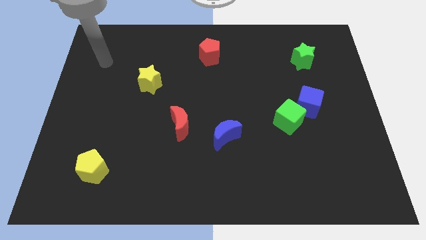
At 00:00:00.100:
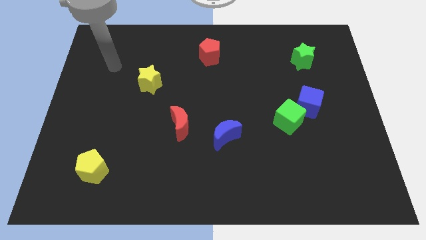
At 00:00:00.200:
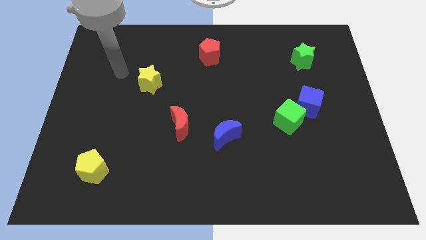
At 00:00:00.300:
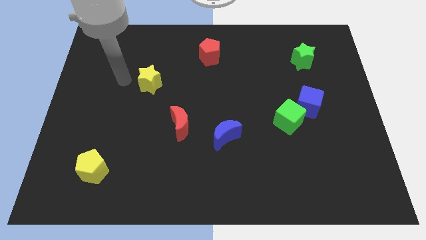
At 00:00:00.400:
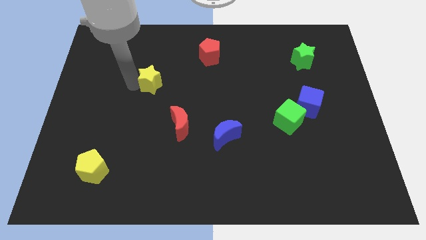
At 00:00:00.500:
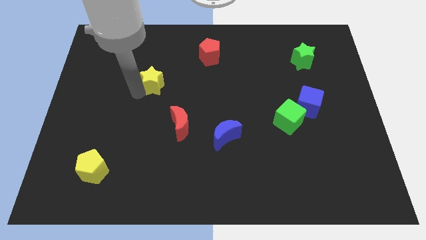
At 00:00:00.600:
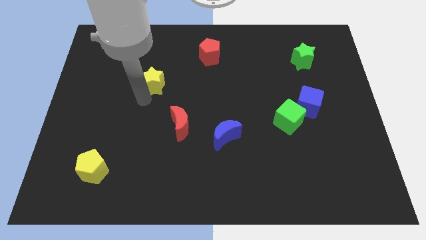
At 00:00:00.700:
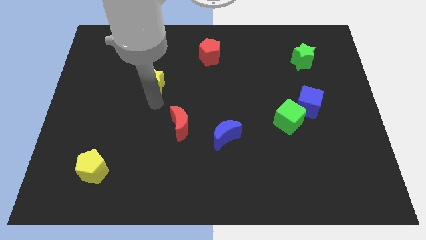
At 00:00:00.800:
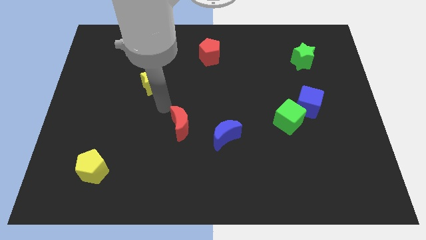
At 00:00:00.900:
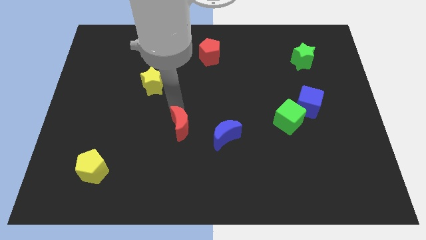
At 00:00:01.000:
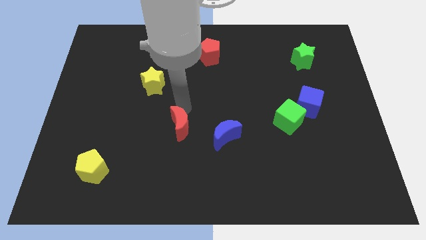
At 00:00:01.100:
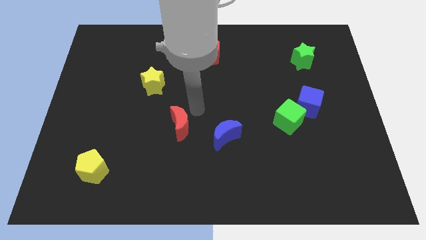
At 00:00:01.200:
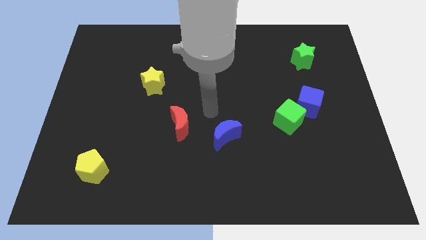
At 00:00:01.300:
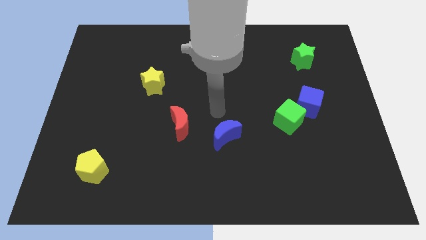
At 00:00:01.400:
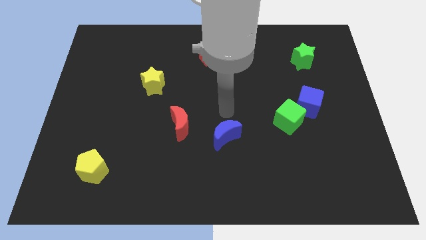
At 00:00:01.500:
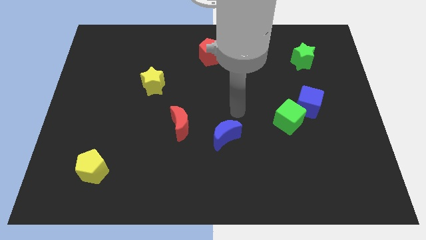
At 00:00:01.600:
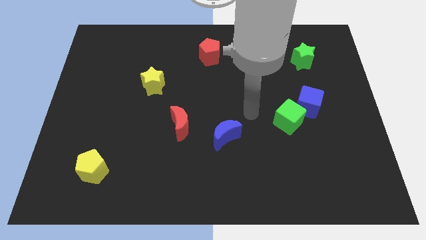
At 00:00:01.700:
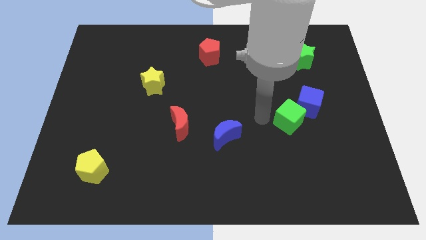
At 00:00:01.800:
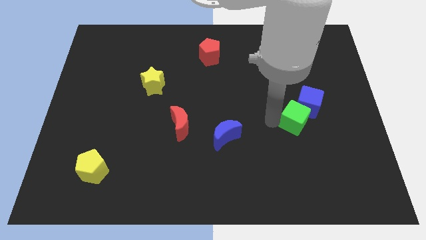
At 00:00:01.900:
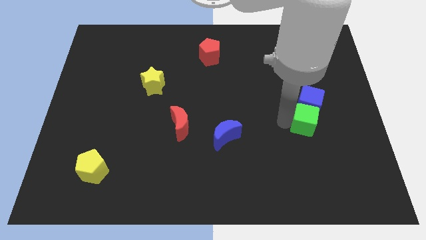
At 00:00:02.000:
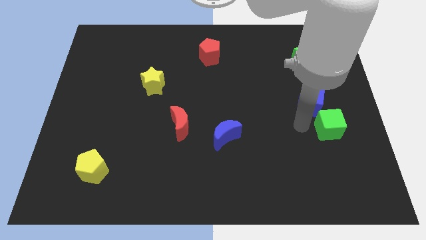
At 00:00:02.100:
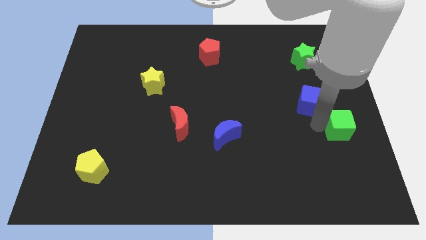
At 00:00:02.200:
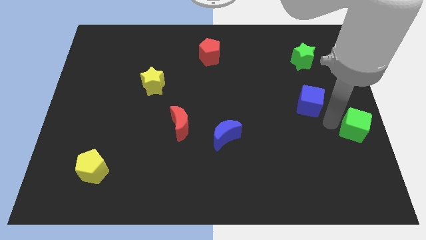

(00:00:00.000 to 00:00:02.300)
move the blue cube away from the green cube

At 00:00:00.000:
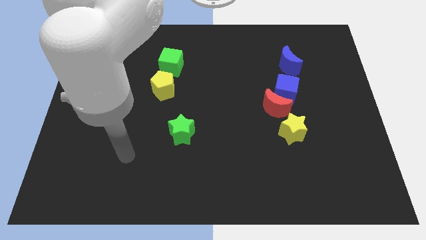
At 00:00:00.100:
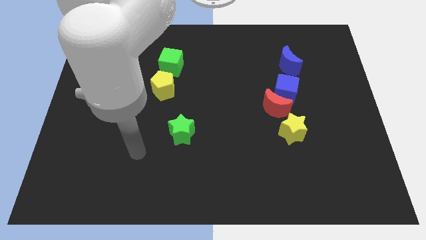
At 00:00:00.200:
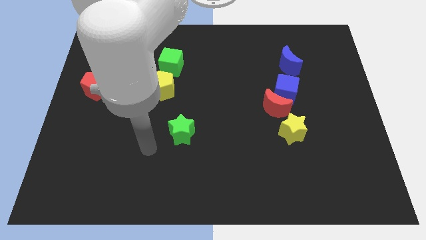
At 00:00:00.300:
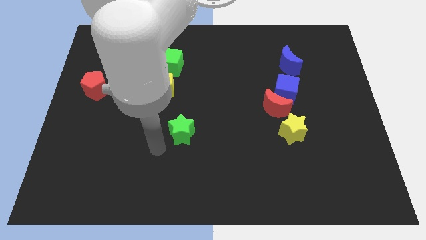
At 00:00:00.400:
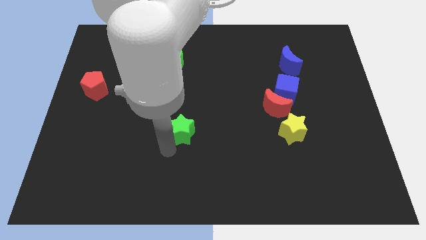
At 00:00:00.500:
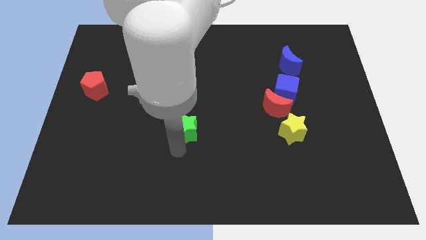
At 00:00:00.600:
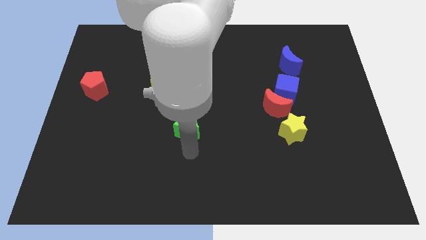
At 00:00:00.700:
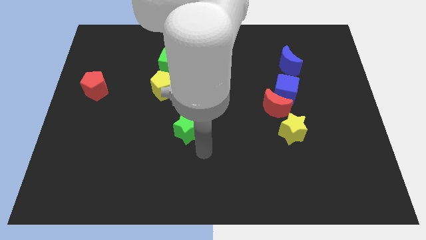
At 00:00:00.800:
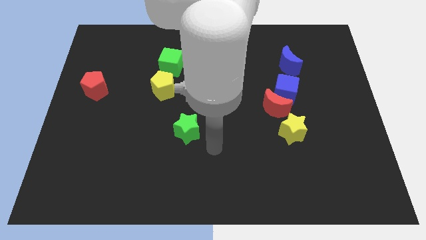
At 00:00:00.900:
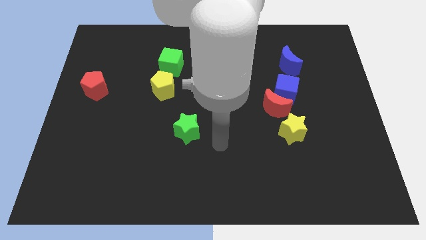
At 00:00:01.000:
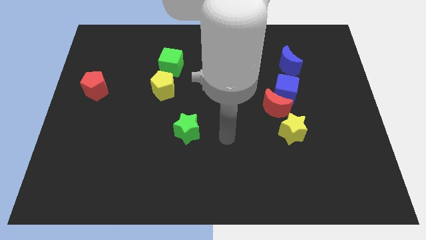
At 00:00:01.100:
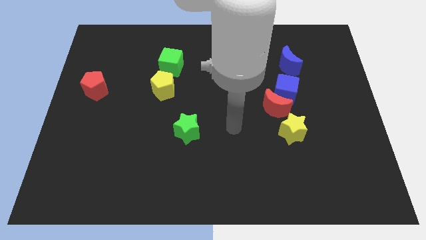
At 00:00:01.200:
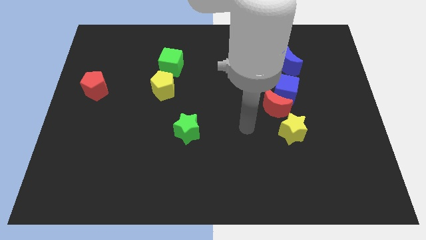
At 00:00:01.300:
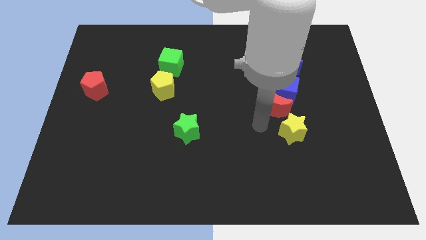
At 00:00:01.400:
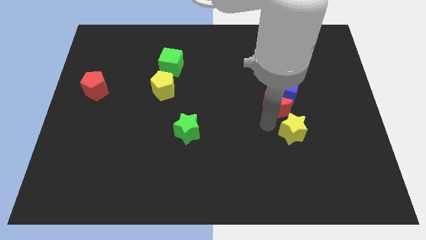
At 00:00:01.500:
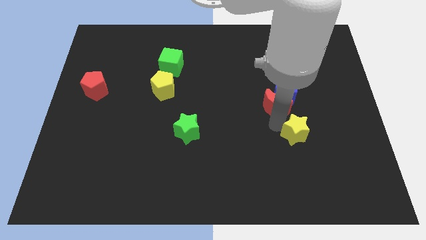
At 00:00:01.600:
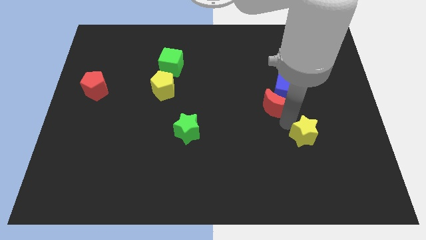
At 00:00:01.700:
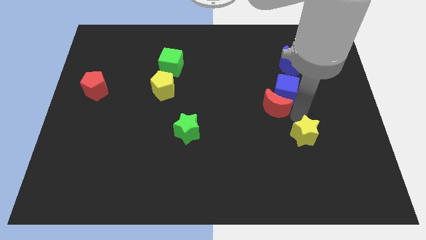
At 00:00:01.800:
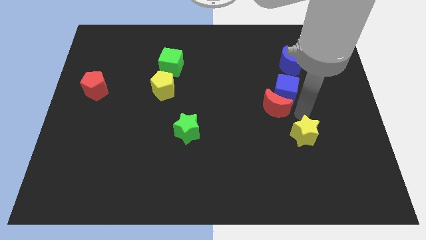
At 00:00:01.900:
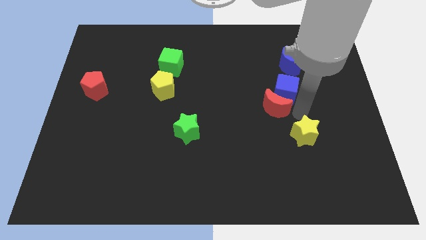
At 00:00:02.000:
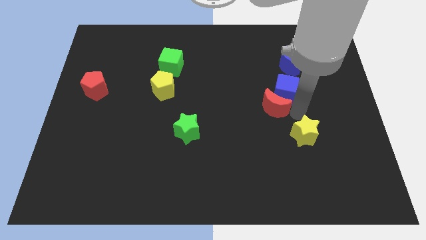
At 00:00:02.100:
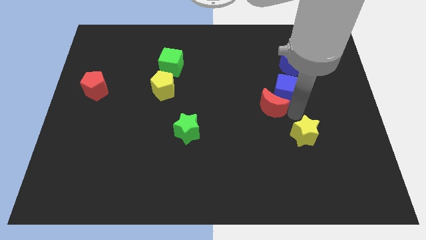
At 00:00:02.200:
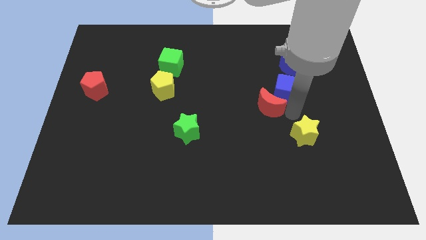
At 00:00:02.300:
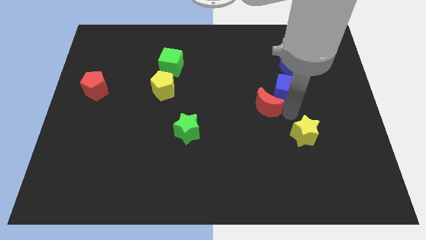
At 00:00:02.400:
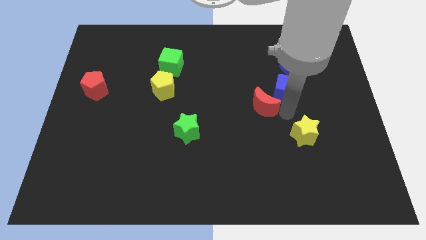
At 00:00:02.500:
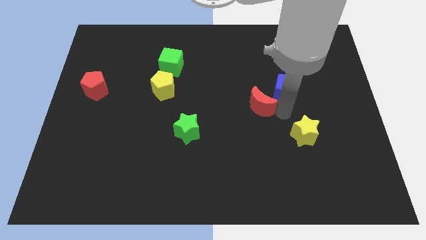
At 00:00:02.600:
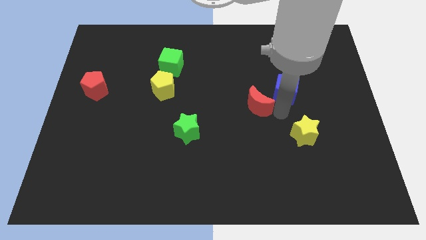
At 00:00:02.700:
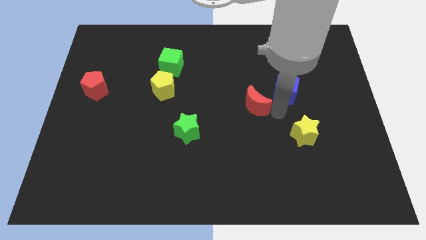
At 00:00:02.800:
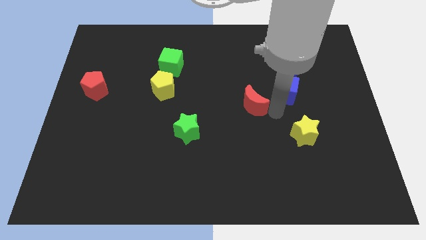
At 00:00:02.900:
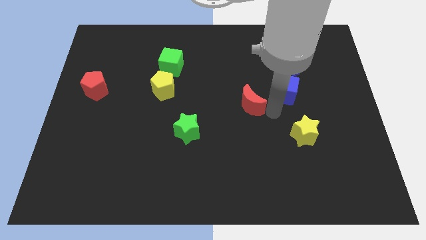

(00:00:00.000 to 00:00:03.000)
move the red moon away from the blue cube and yellow star

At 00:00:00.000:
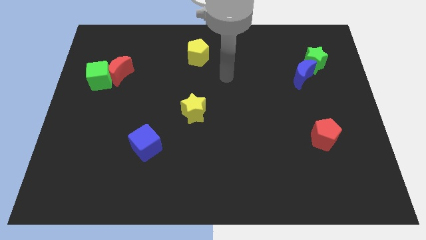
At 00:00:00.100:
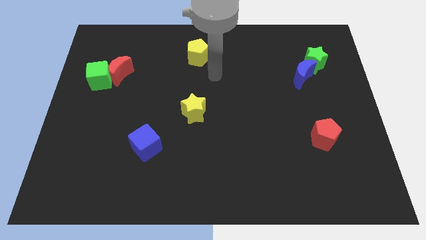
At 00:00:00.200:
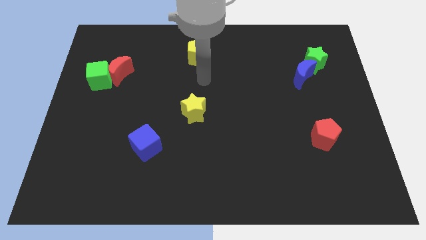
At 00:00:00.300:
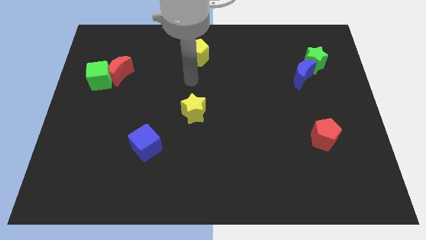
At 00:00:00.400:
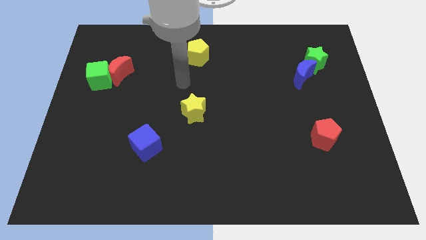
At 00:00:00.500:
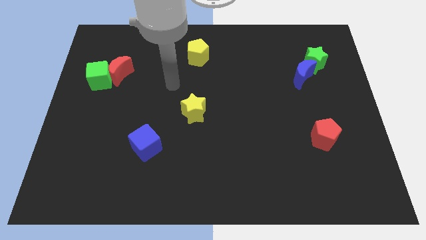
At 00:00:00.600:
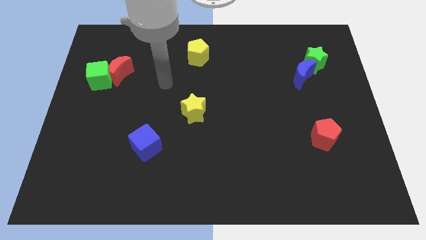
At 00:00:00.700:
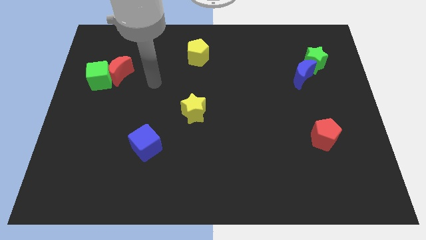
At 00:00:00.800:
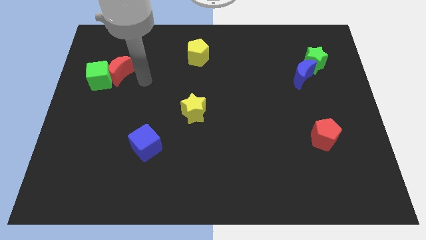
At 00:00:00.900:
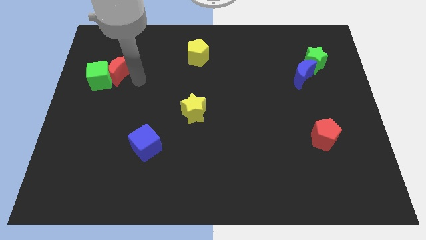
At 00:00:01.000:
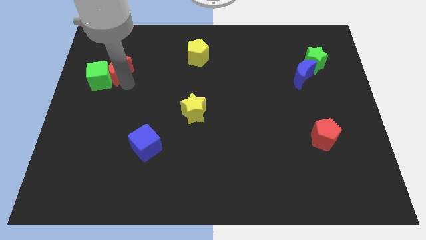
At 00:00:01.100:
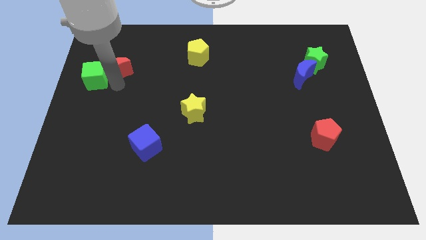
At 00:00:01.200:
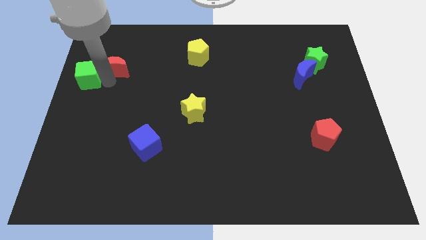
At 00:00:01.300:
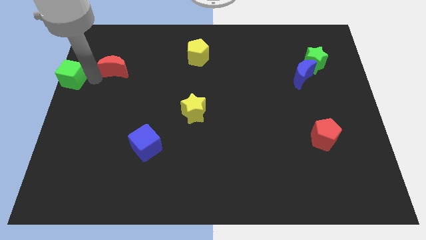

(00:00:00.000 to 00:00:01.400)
move the red moon away from the green cube

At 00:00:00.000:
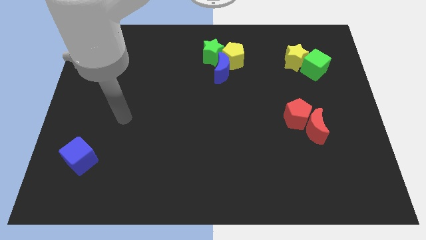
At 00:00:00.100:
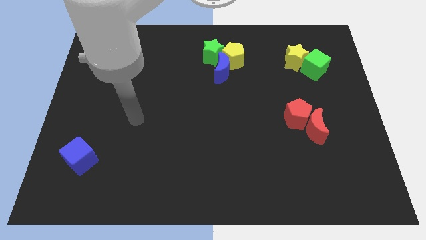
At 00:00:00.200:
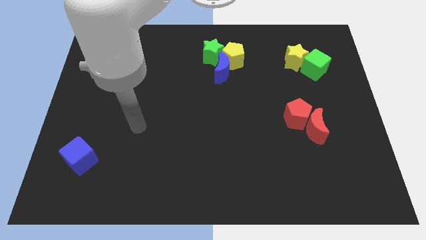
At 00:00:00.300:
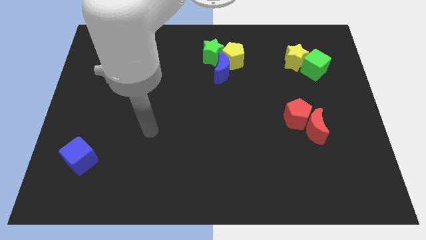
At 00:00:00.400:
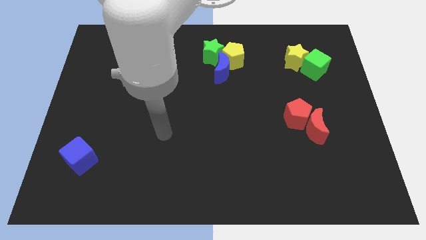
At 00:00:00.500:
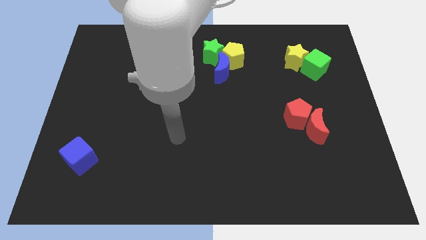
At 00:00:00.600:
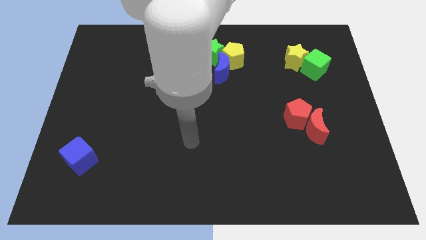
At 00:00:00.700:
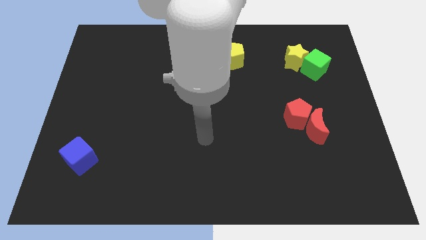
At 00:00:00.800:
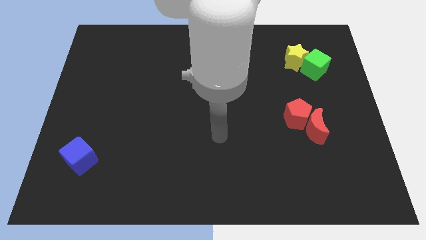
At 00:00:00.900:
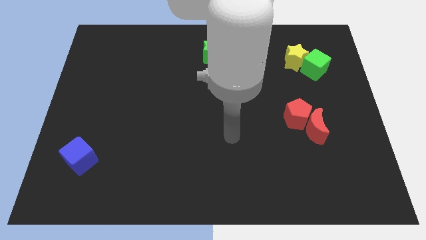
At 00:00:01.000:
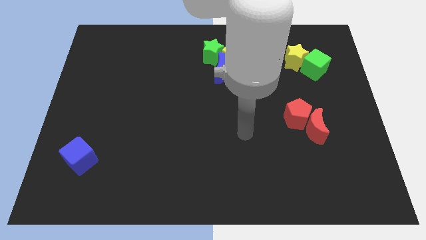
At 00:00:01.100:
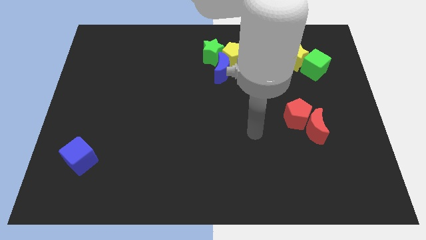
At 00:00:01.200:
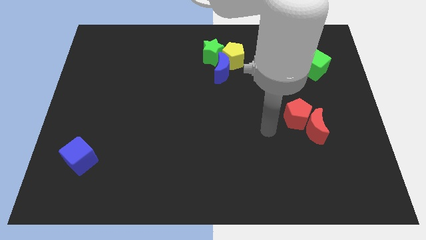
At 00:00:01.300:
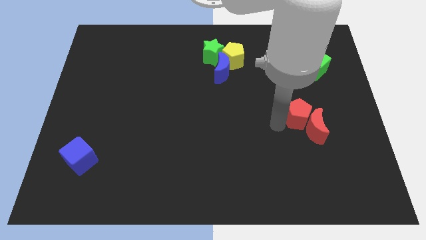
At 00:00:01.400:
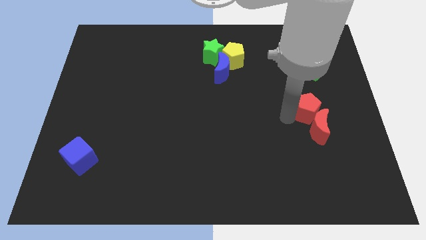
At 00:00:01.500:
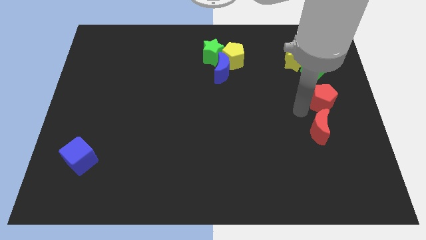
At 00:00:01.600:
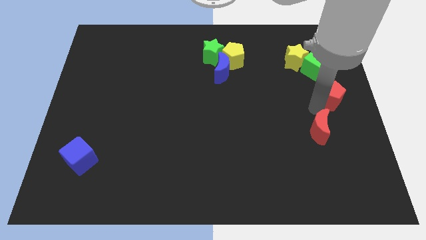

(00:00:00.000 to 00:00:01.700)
pull the red moon apart from the red pentagon

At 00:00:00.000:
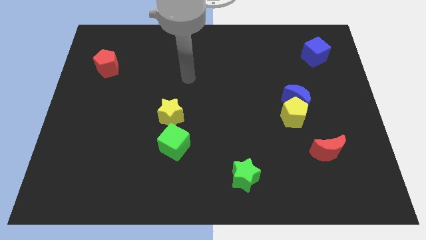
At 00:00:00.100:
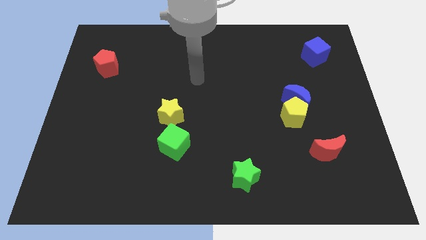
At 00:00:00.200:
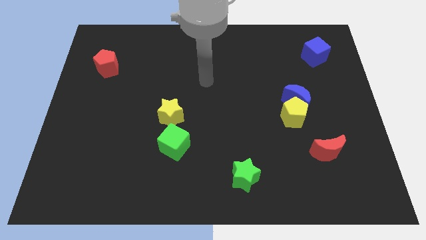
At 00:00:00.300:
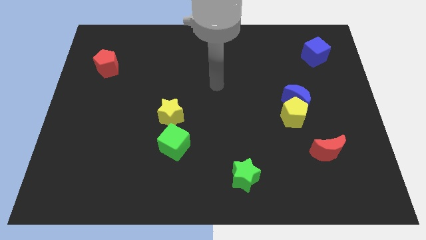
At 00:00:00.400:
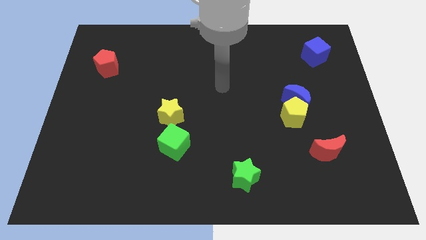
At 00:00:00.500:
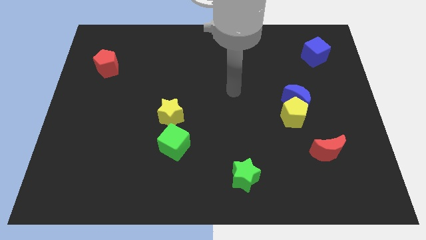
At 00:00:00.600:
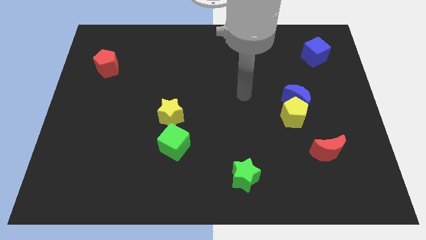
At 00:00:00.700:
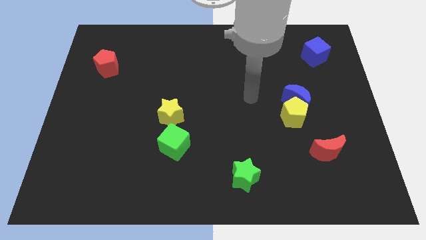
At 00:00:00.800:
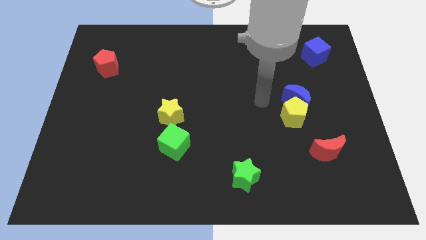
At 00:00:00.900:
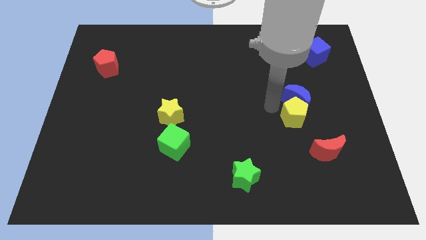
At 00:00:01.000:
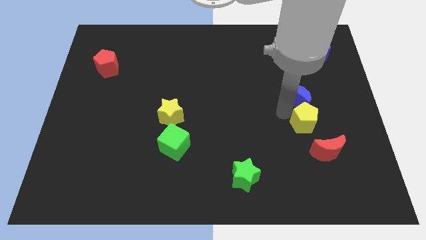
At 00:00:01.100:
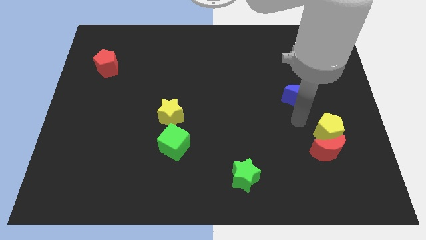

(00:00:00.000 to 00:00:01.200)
separate the blue moon from the yellow pentagon
